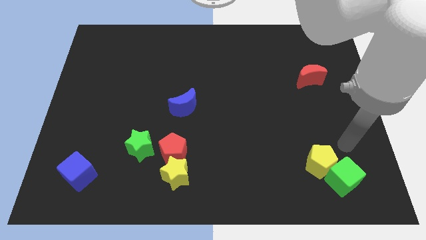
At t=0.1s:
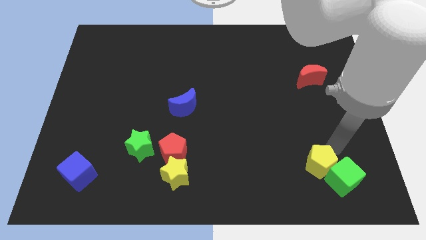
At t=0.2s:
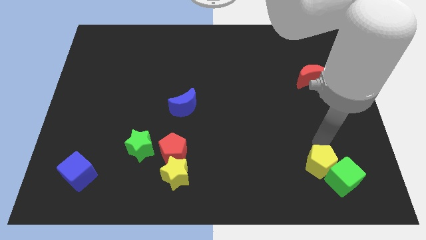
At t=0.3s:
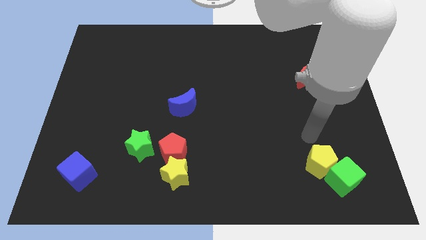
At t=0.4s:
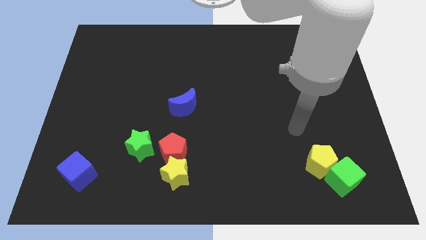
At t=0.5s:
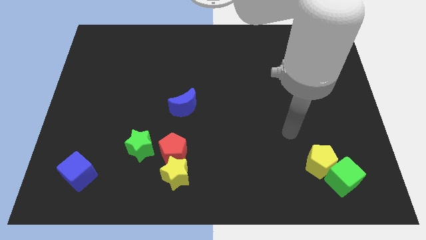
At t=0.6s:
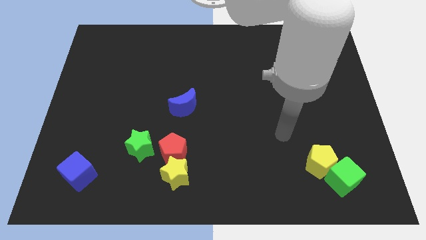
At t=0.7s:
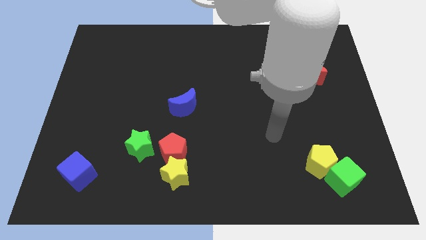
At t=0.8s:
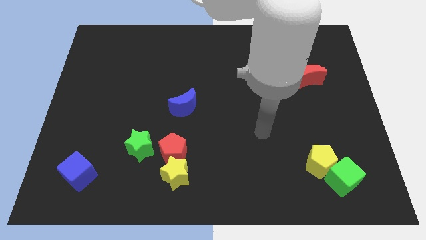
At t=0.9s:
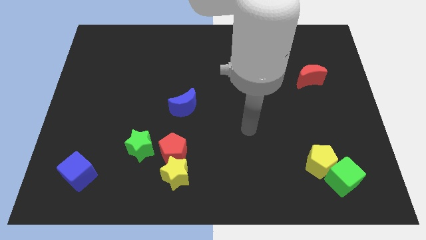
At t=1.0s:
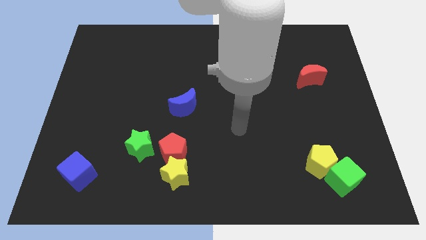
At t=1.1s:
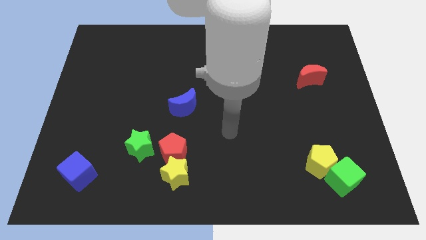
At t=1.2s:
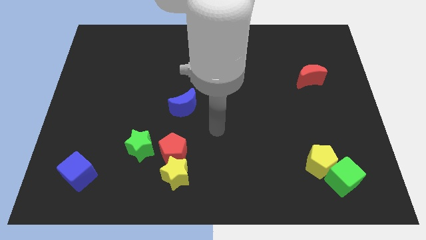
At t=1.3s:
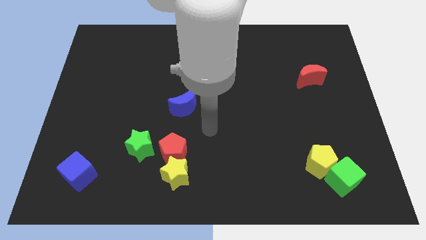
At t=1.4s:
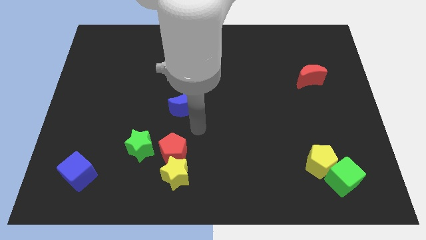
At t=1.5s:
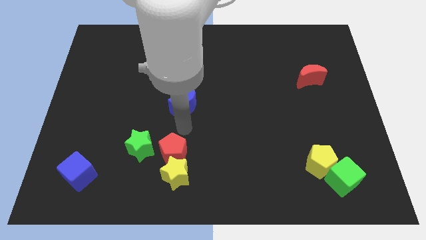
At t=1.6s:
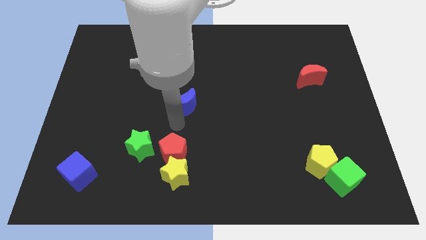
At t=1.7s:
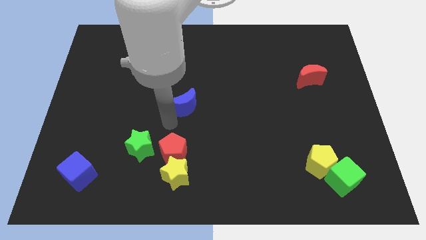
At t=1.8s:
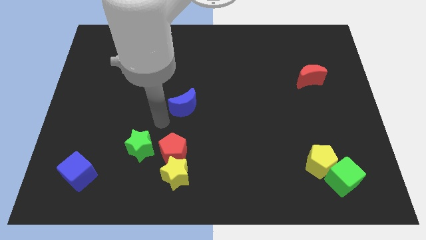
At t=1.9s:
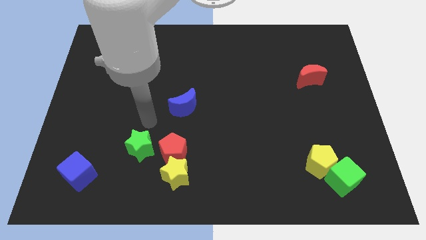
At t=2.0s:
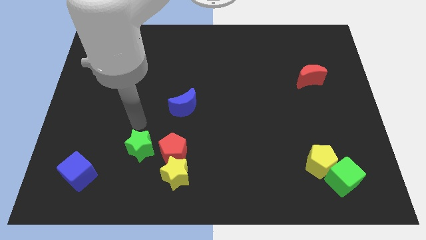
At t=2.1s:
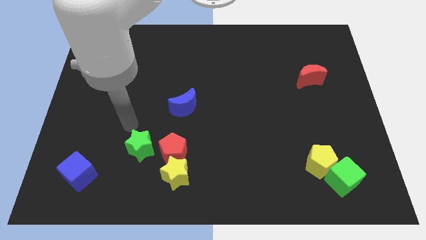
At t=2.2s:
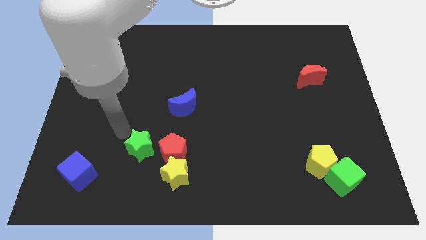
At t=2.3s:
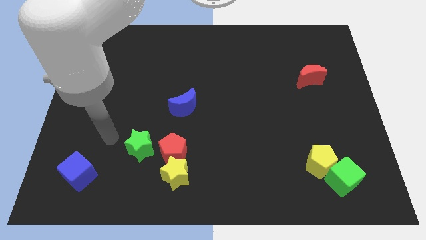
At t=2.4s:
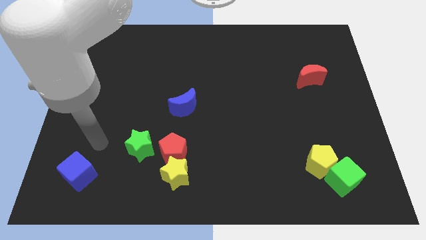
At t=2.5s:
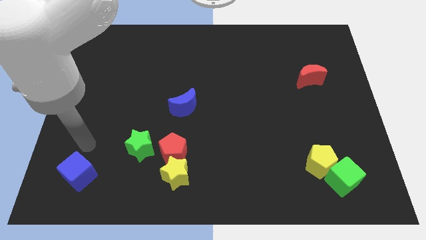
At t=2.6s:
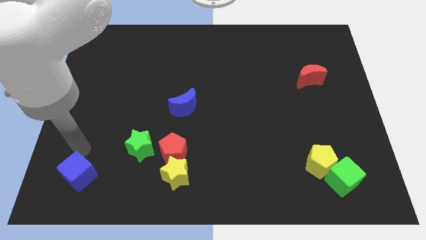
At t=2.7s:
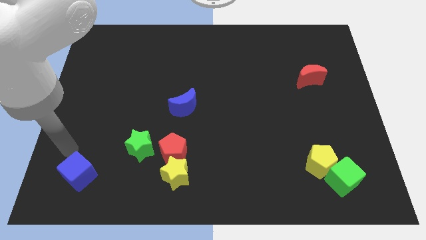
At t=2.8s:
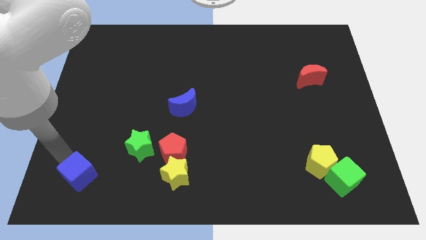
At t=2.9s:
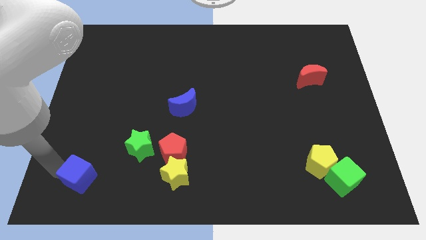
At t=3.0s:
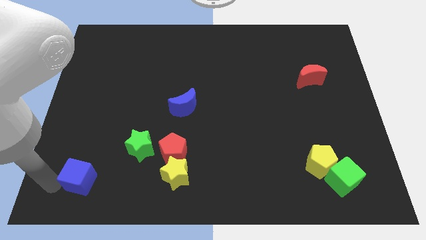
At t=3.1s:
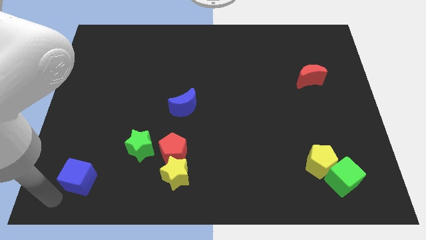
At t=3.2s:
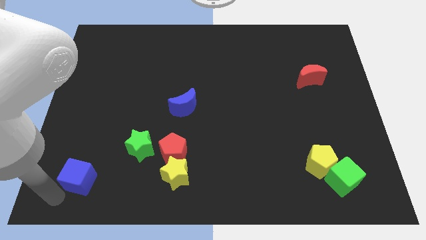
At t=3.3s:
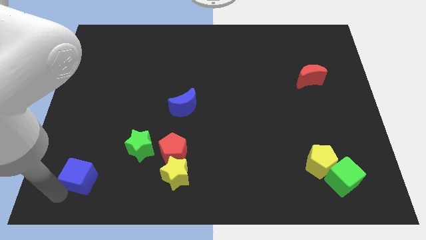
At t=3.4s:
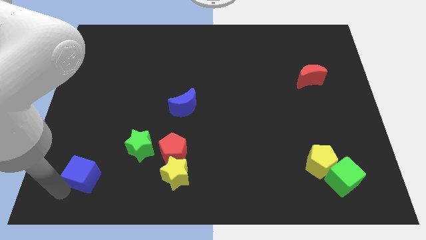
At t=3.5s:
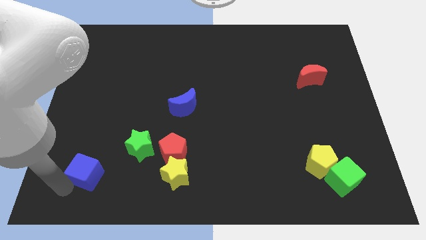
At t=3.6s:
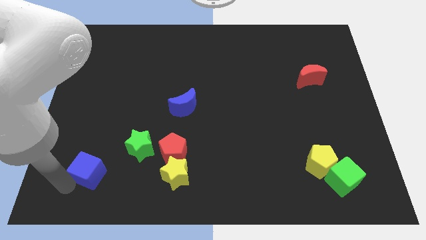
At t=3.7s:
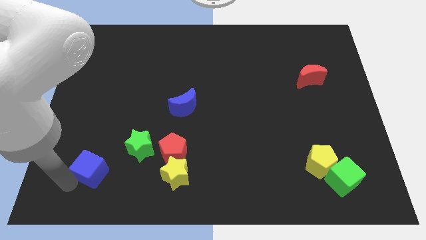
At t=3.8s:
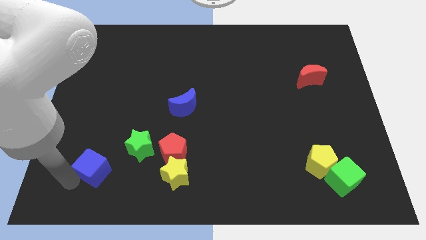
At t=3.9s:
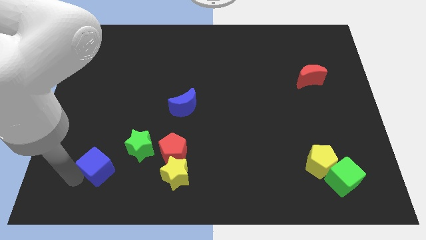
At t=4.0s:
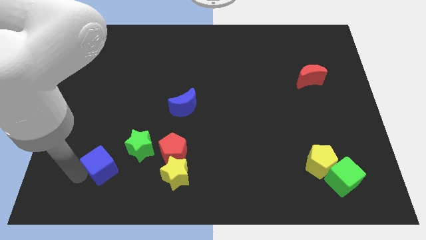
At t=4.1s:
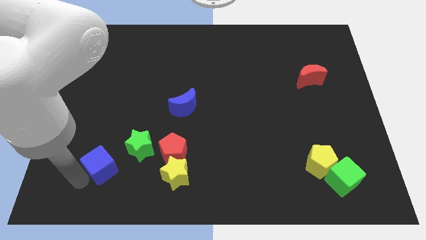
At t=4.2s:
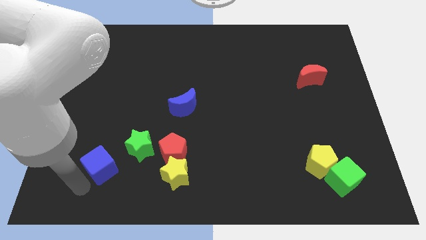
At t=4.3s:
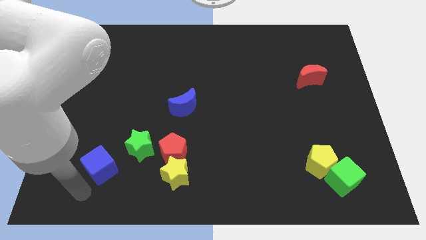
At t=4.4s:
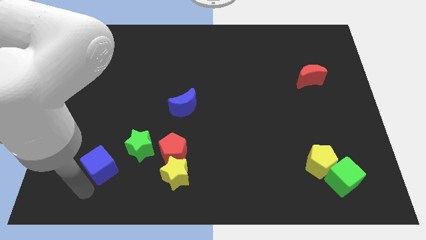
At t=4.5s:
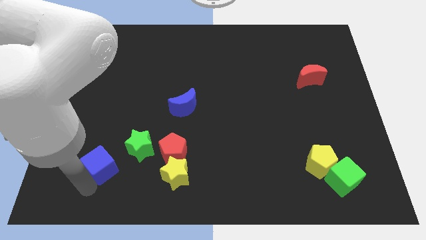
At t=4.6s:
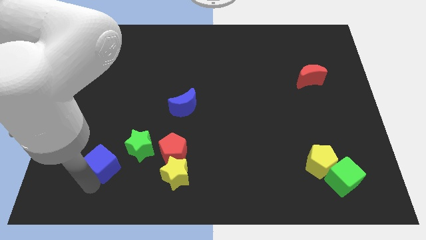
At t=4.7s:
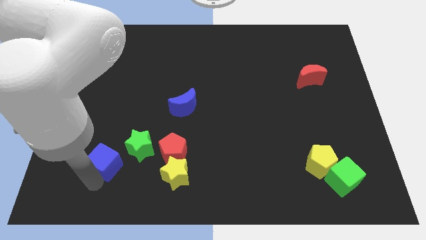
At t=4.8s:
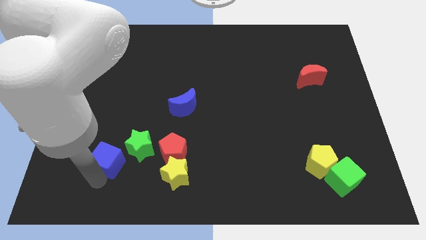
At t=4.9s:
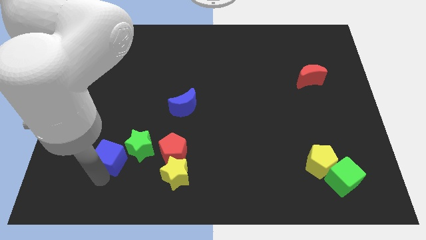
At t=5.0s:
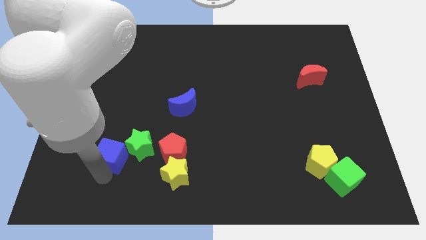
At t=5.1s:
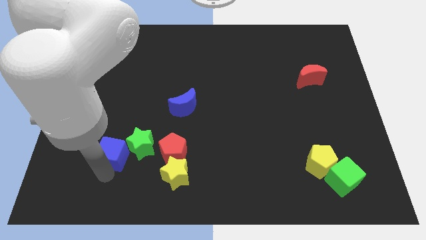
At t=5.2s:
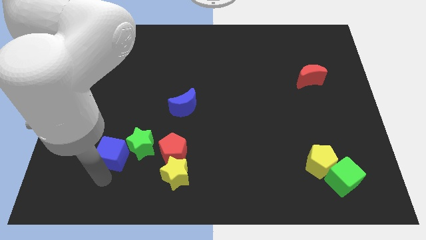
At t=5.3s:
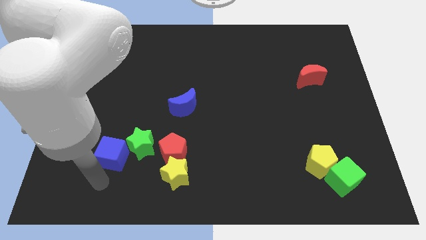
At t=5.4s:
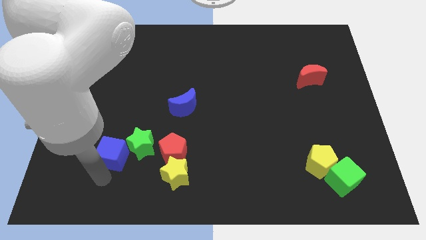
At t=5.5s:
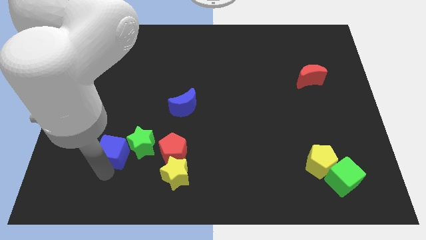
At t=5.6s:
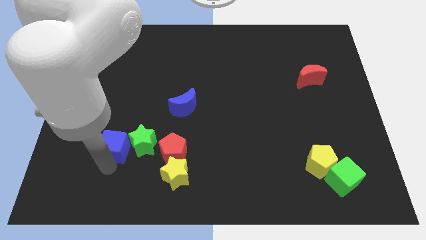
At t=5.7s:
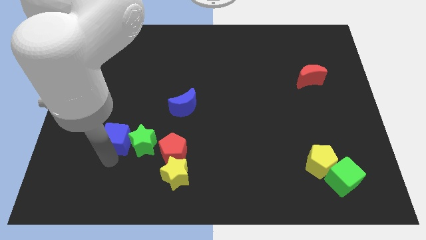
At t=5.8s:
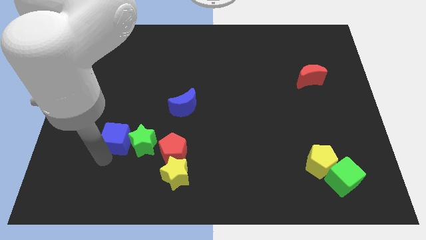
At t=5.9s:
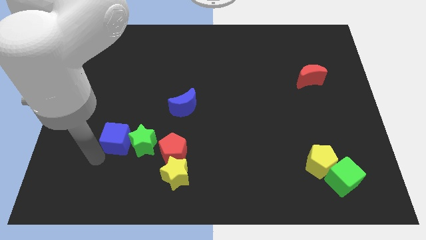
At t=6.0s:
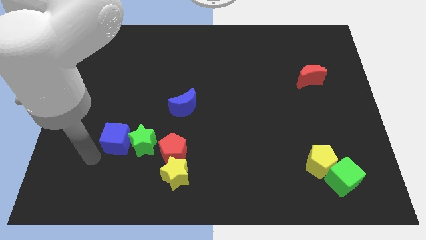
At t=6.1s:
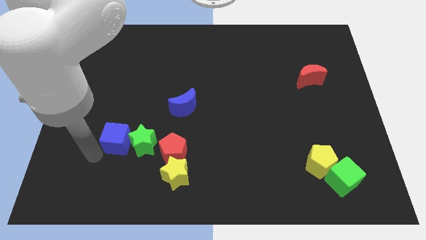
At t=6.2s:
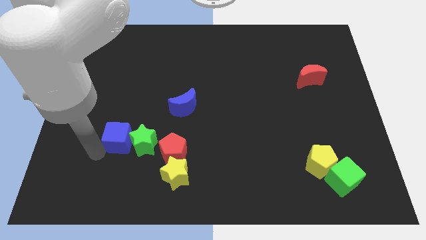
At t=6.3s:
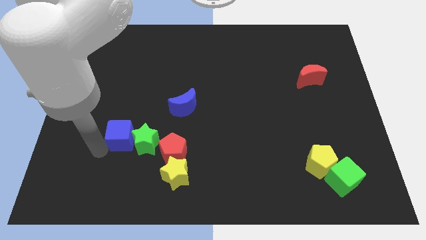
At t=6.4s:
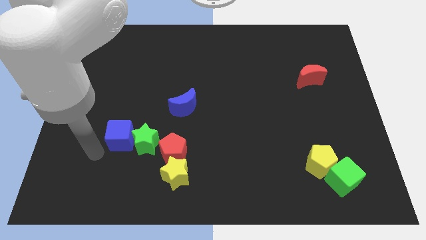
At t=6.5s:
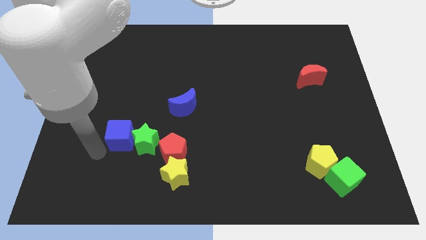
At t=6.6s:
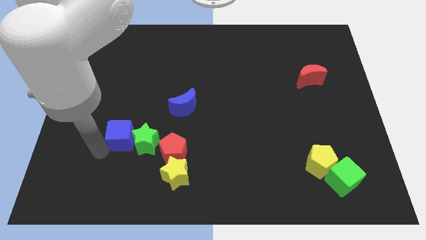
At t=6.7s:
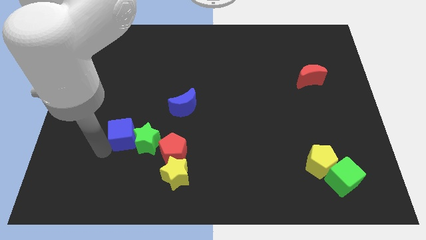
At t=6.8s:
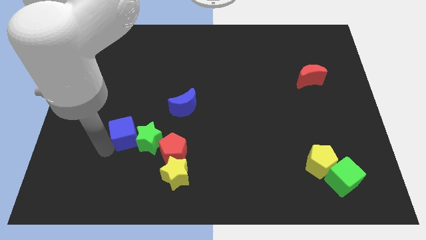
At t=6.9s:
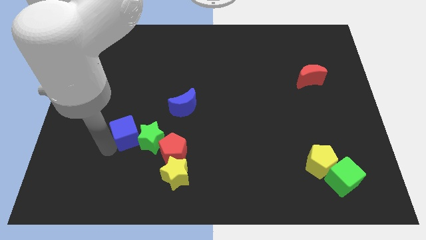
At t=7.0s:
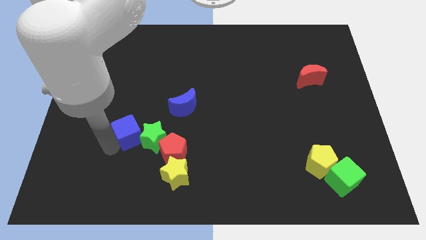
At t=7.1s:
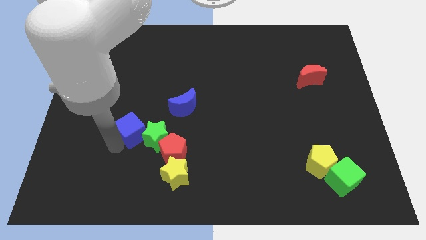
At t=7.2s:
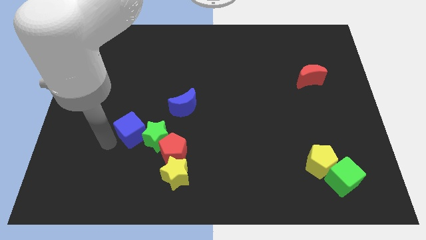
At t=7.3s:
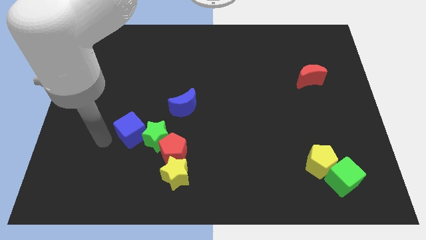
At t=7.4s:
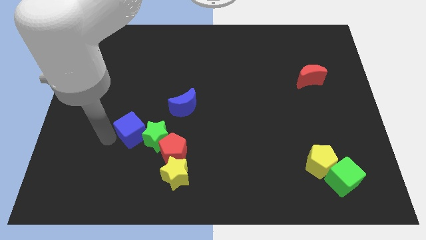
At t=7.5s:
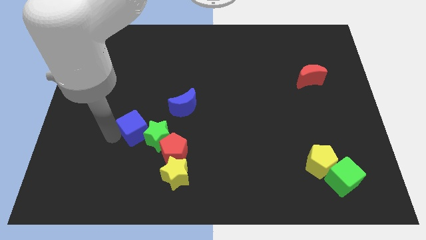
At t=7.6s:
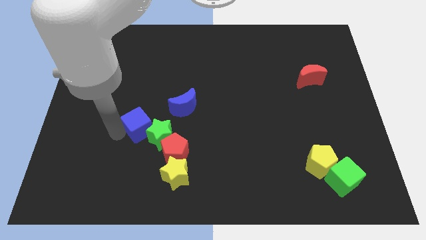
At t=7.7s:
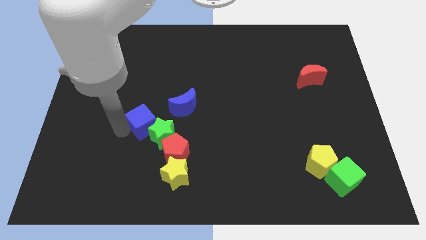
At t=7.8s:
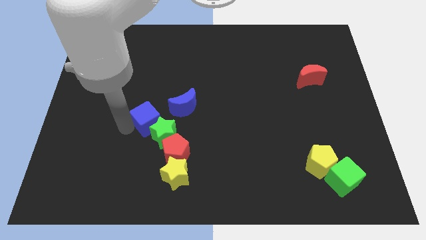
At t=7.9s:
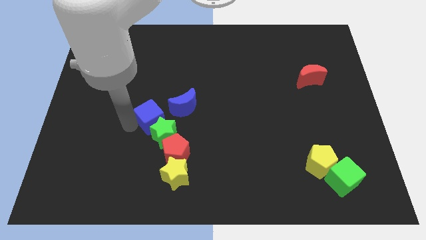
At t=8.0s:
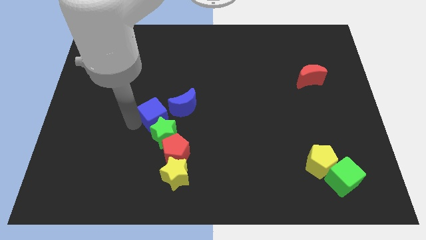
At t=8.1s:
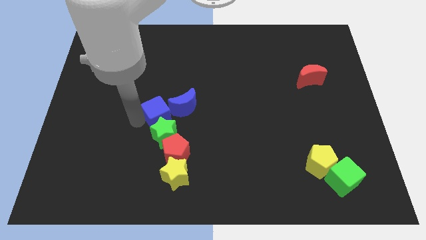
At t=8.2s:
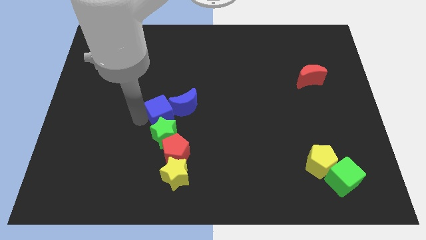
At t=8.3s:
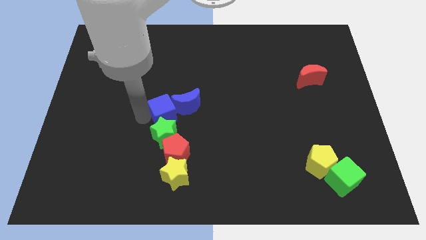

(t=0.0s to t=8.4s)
push the blue cube diagonally up and to the right of the green star
